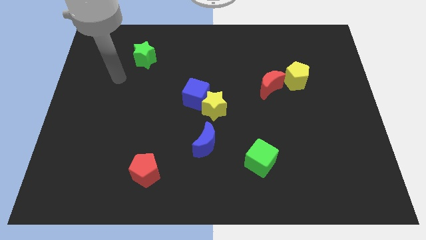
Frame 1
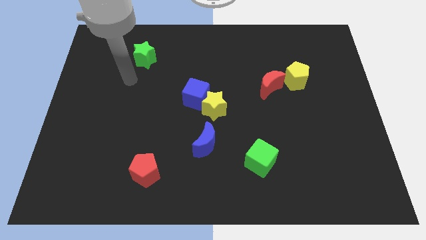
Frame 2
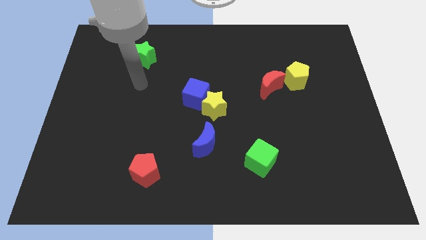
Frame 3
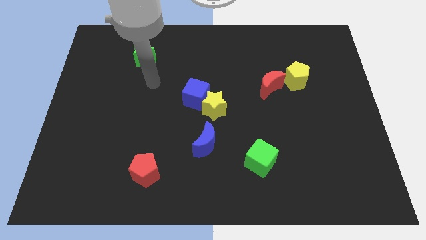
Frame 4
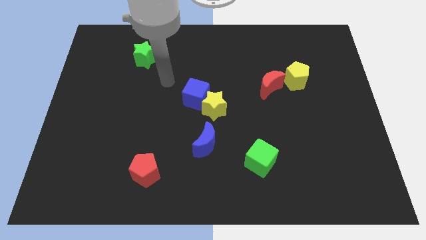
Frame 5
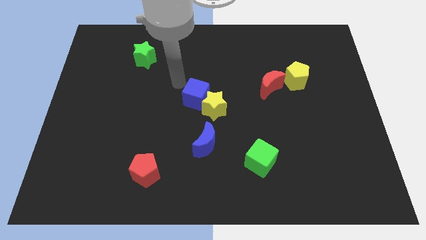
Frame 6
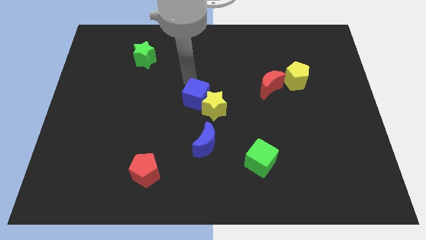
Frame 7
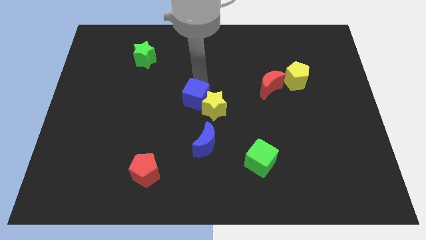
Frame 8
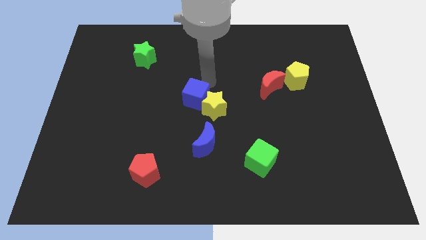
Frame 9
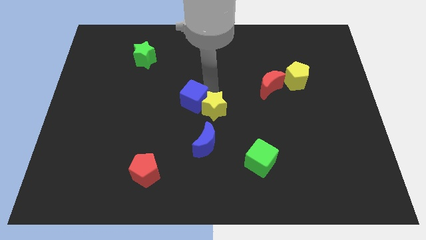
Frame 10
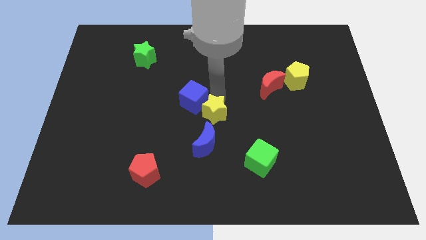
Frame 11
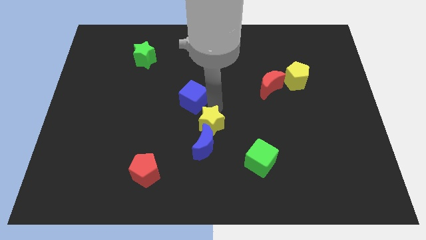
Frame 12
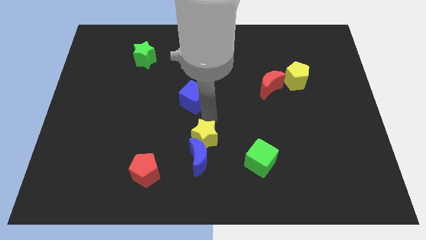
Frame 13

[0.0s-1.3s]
pull the blue cube apart from the yellow star

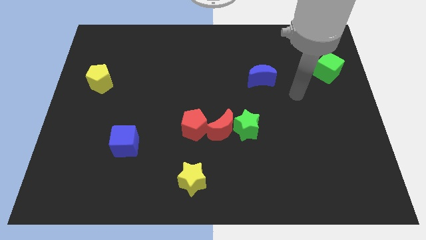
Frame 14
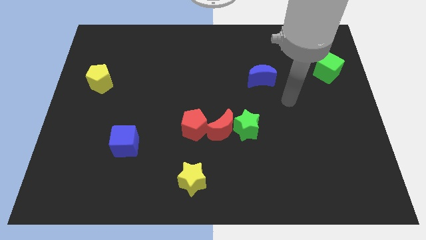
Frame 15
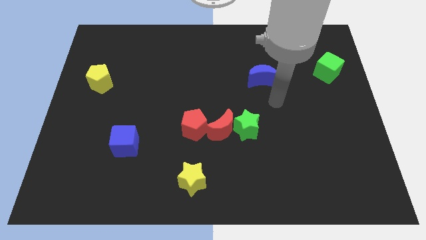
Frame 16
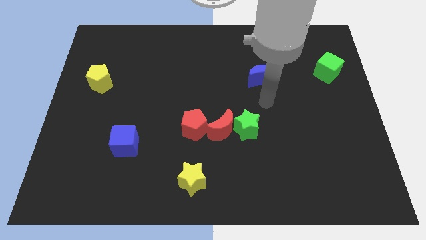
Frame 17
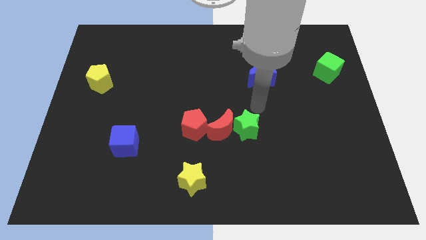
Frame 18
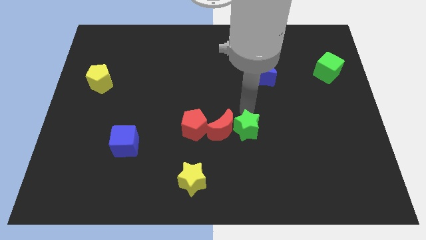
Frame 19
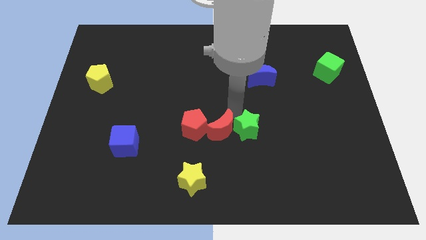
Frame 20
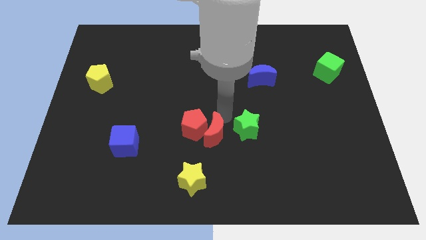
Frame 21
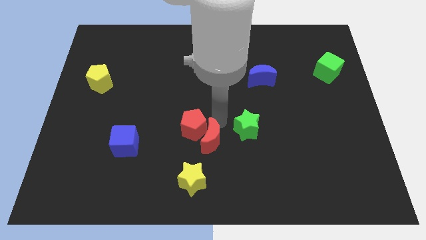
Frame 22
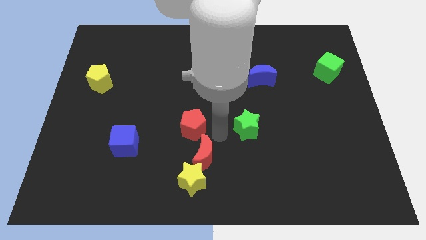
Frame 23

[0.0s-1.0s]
pull the green star apart from the red moon

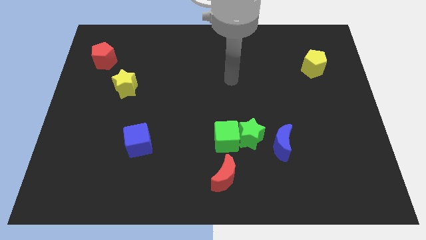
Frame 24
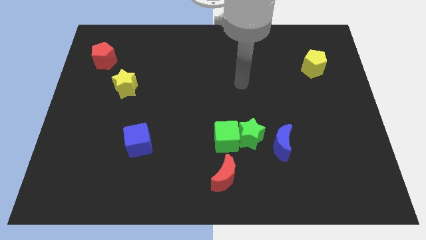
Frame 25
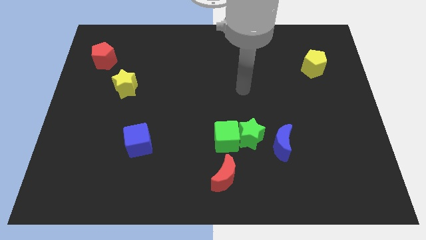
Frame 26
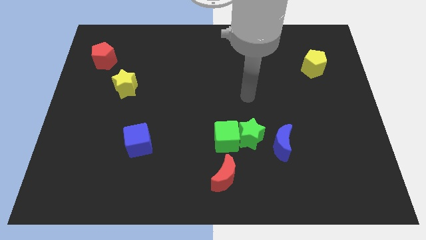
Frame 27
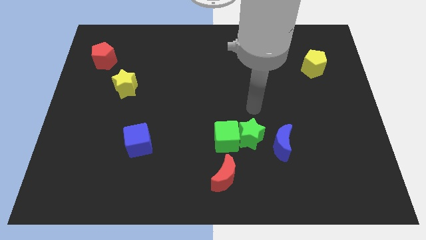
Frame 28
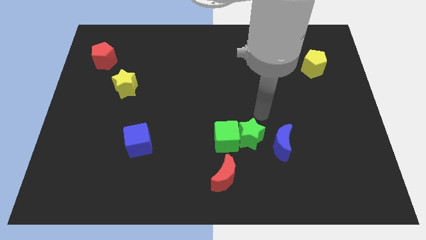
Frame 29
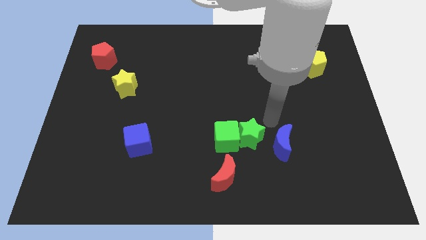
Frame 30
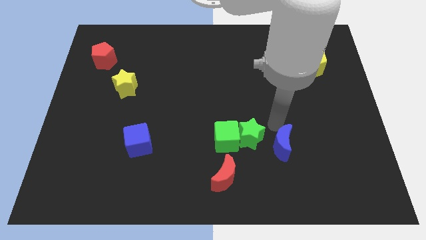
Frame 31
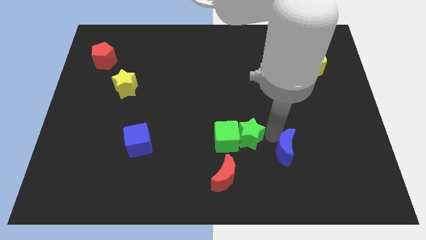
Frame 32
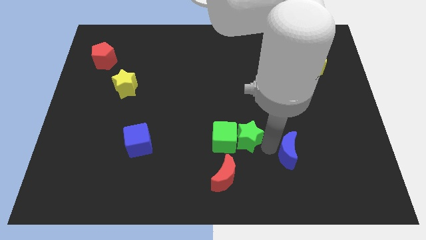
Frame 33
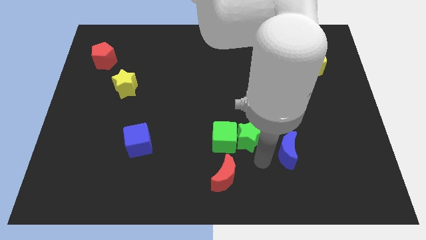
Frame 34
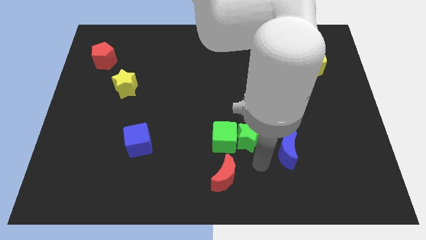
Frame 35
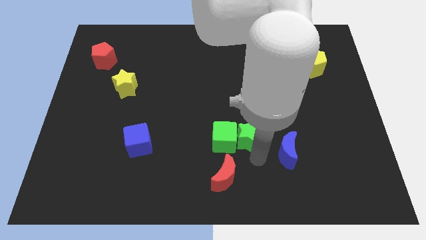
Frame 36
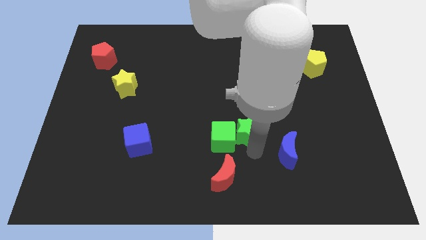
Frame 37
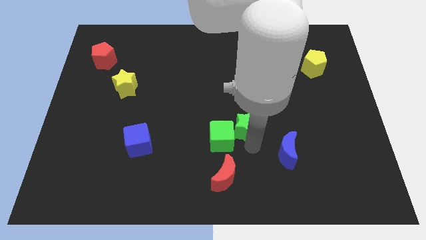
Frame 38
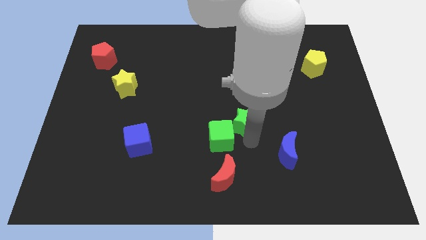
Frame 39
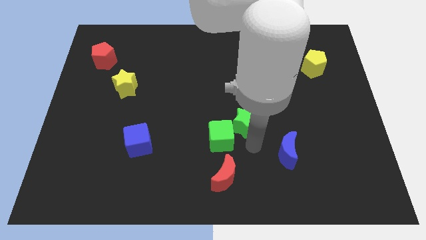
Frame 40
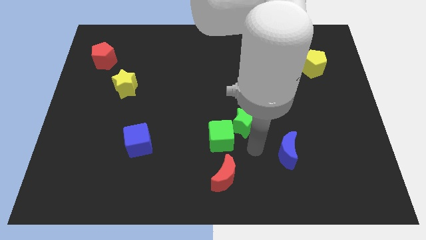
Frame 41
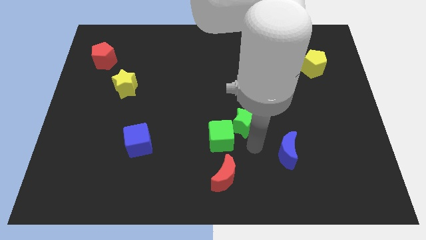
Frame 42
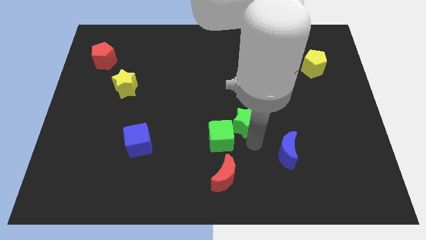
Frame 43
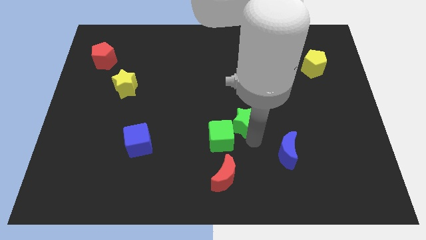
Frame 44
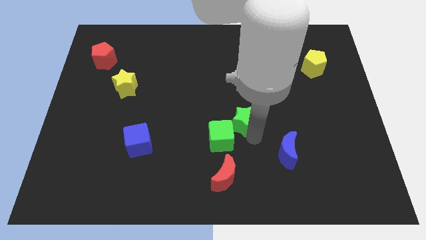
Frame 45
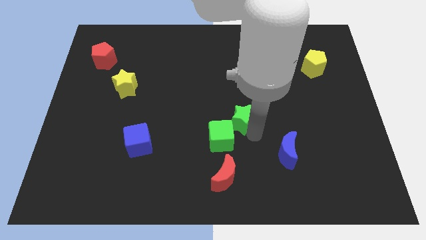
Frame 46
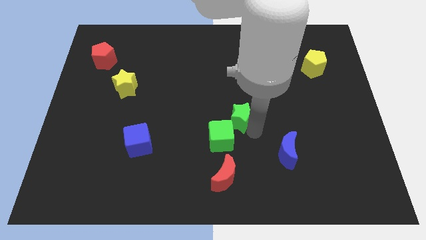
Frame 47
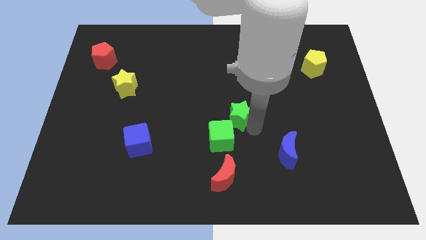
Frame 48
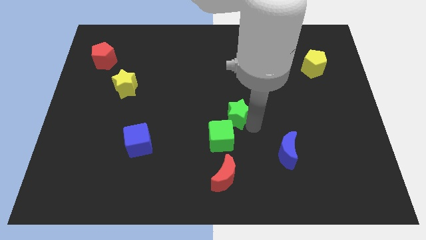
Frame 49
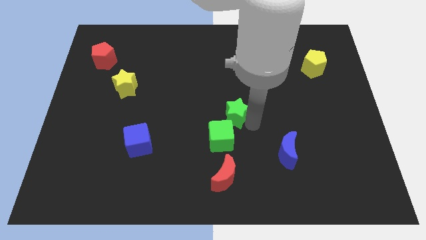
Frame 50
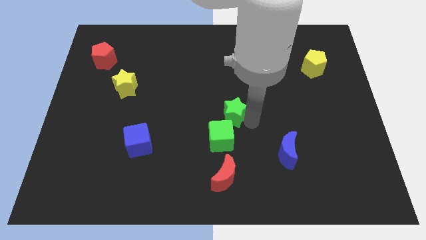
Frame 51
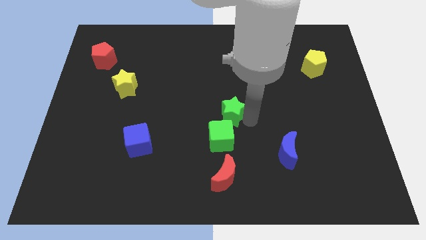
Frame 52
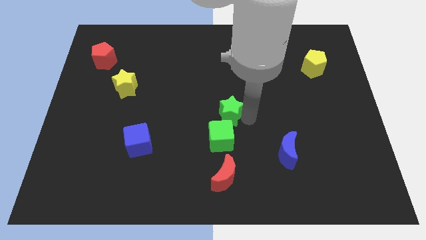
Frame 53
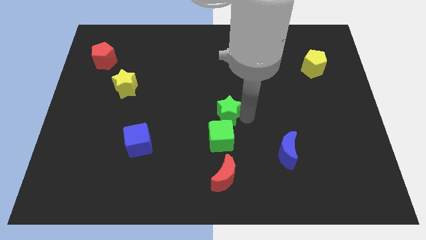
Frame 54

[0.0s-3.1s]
move the green star away from the green cube and blue moon

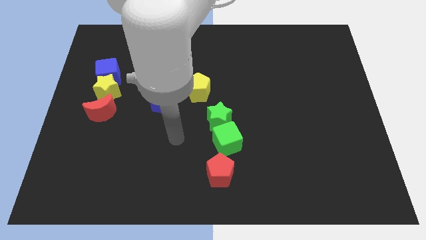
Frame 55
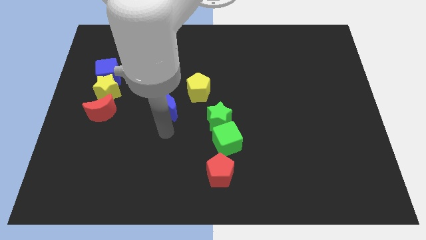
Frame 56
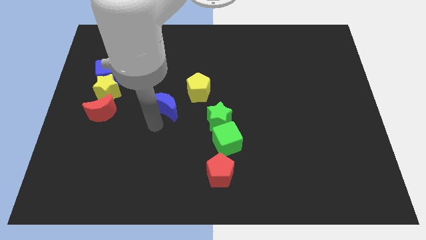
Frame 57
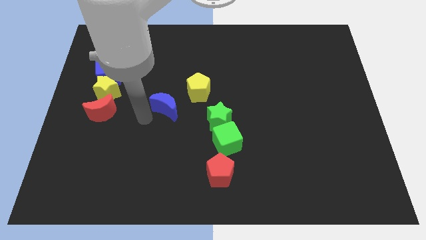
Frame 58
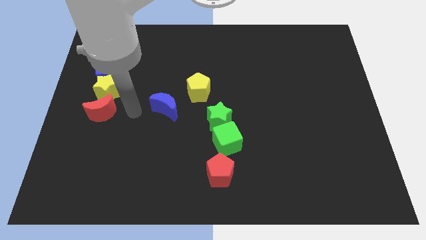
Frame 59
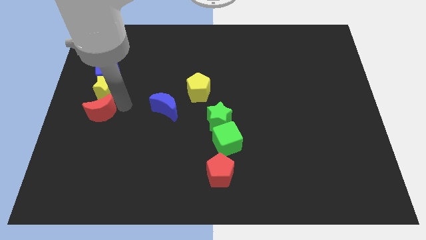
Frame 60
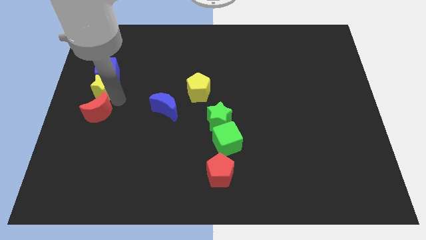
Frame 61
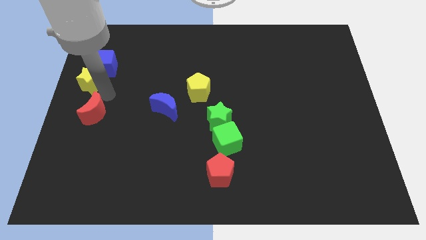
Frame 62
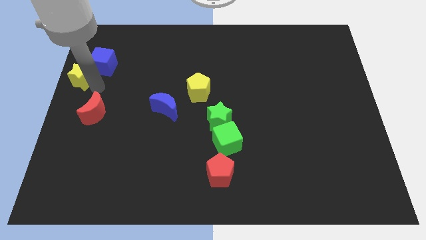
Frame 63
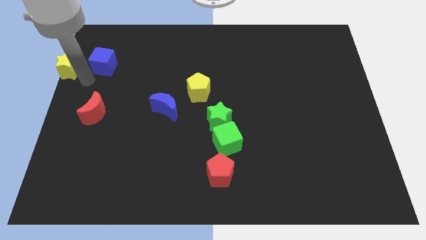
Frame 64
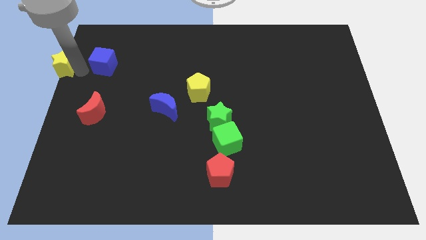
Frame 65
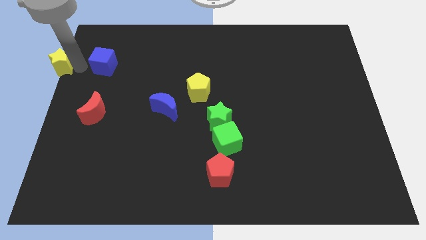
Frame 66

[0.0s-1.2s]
move the blue cube away from the yellow star

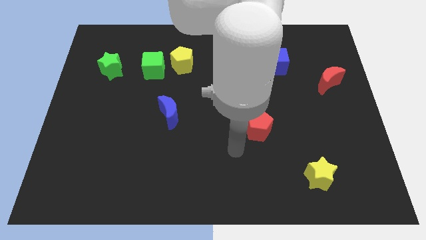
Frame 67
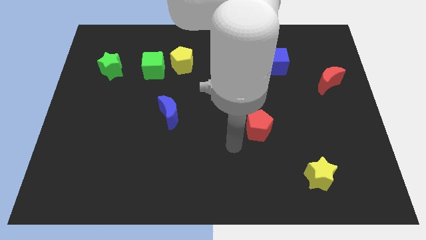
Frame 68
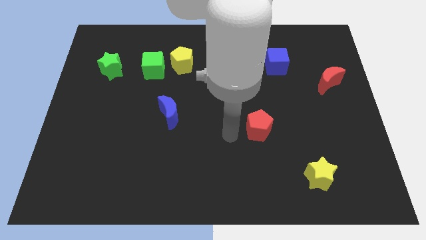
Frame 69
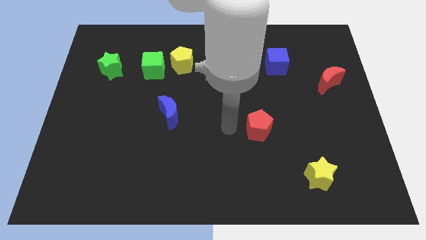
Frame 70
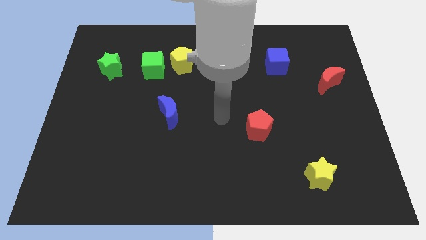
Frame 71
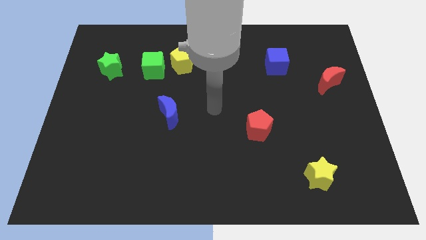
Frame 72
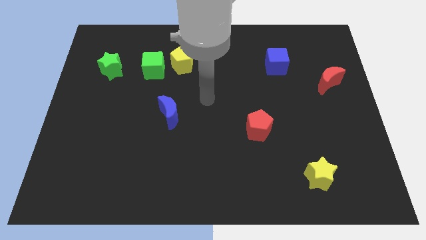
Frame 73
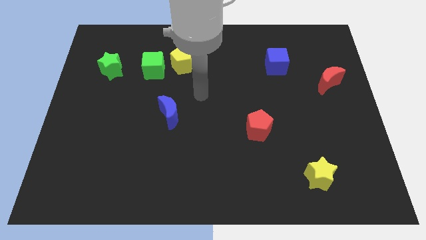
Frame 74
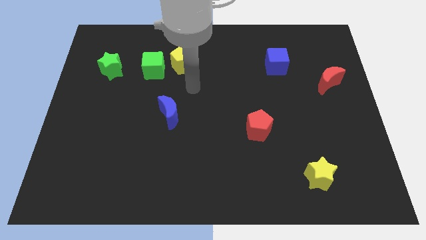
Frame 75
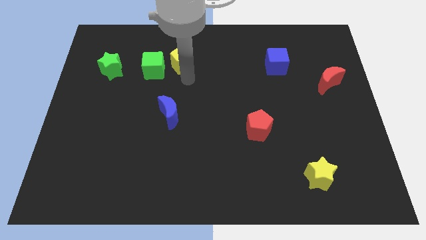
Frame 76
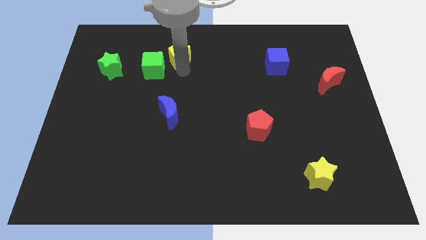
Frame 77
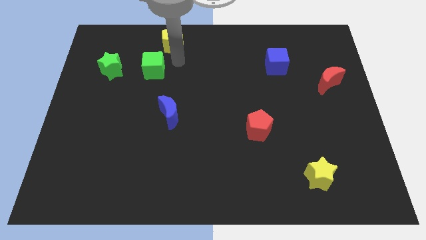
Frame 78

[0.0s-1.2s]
move the green cube away from the yellow pentagon

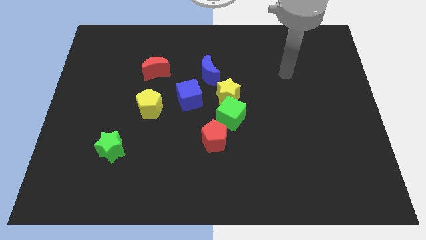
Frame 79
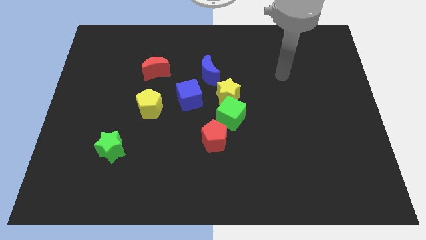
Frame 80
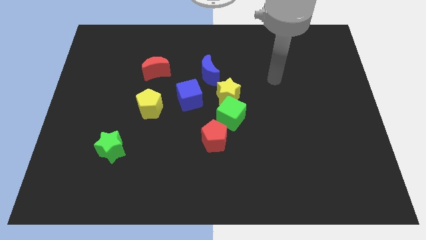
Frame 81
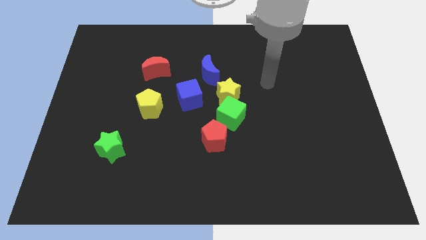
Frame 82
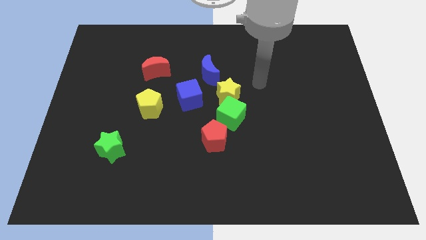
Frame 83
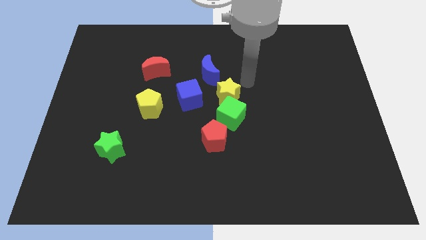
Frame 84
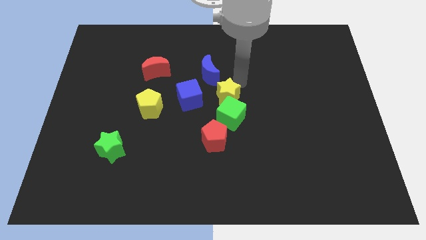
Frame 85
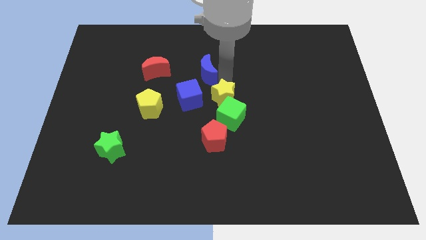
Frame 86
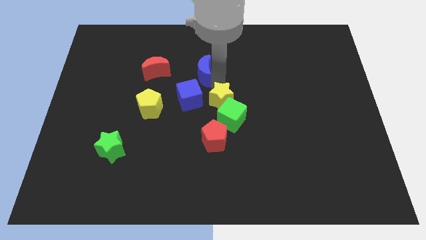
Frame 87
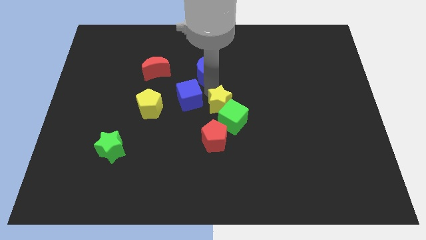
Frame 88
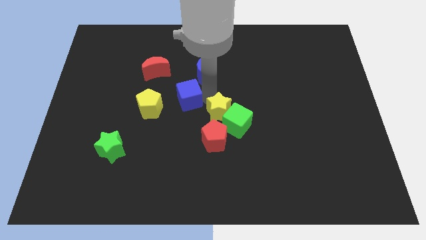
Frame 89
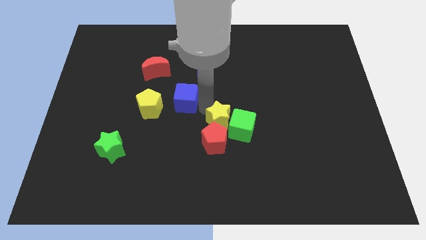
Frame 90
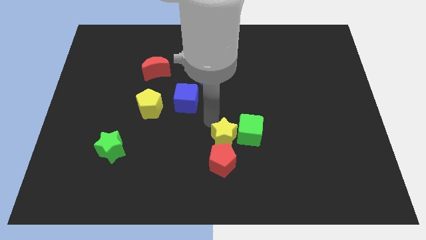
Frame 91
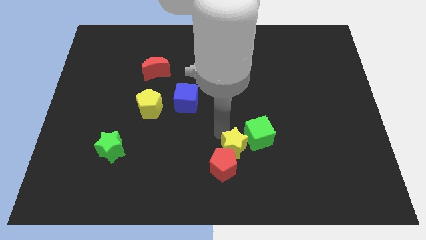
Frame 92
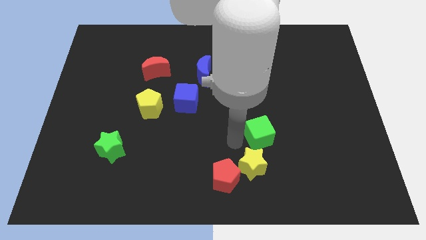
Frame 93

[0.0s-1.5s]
move the green cube away from the yellow star and red pentagon
